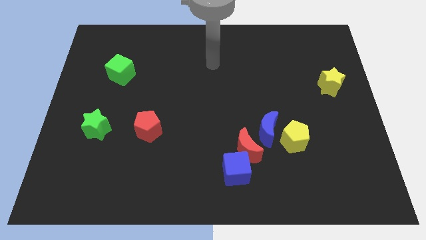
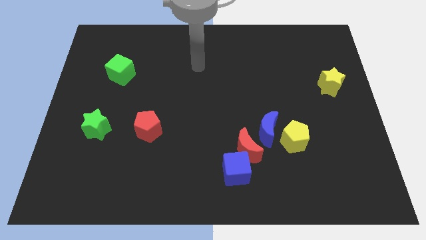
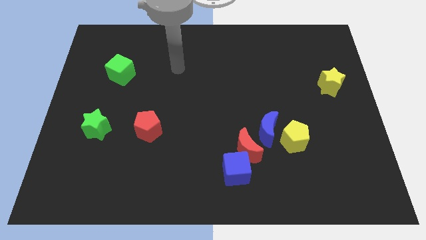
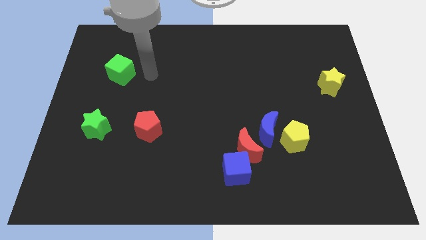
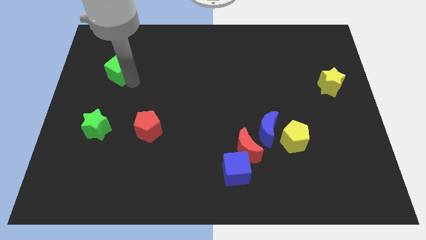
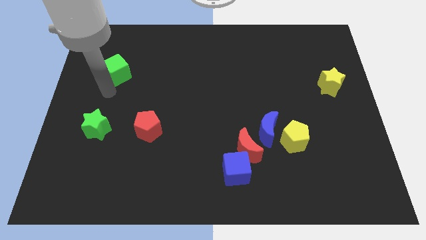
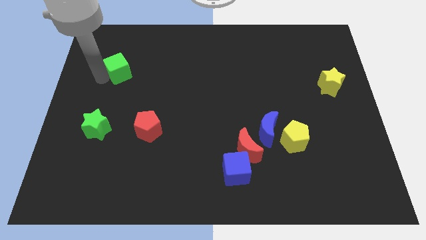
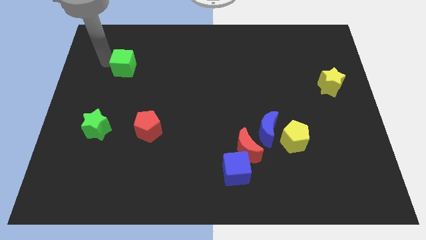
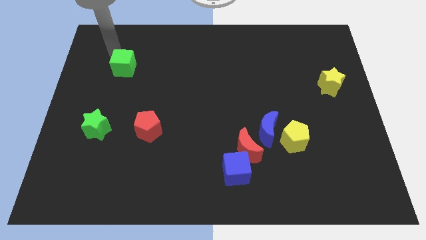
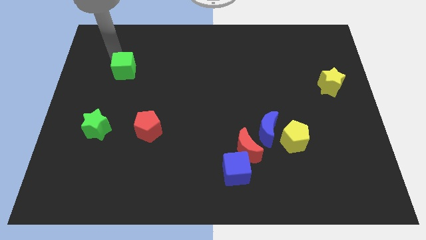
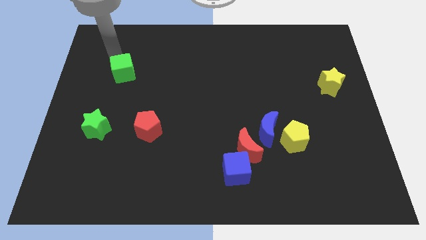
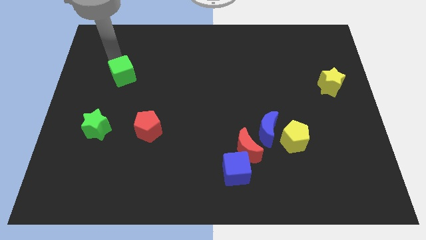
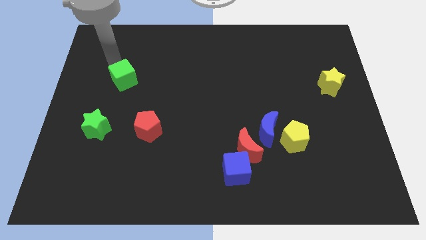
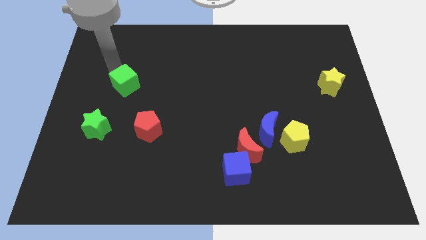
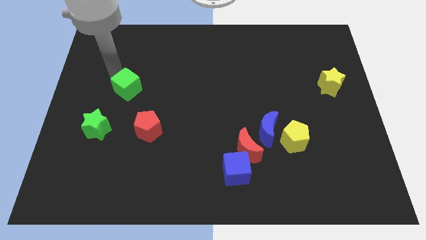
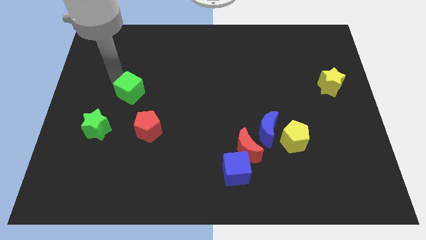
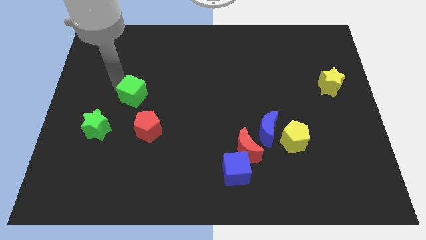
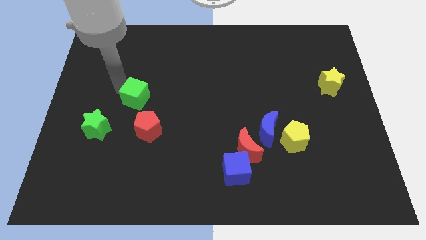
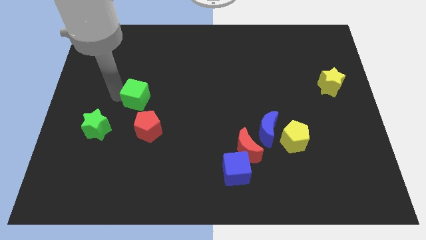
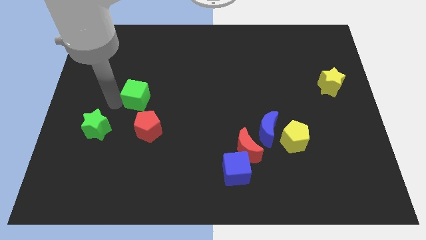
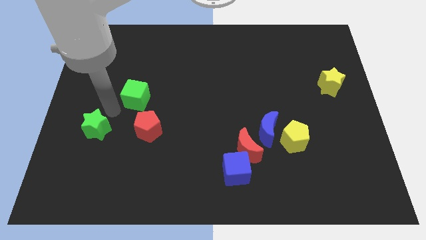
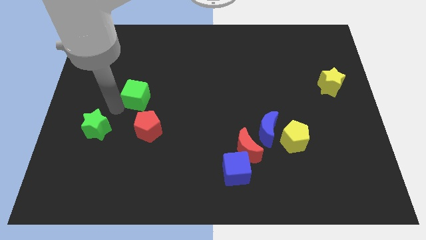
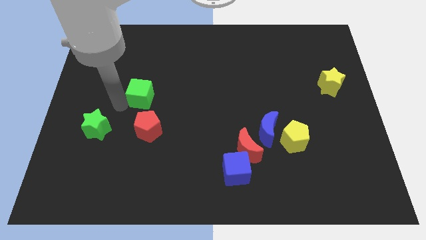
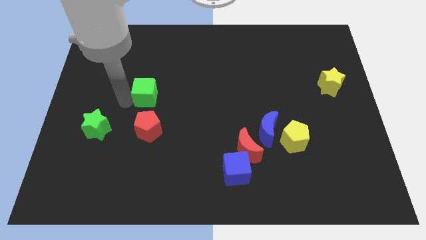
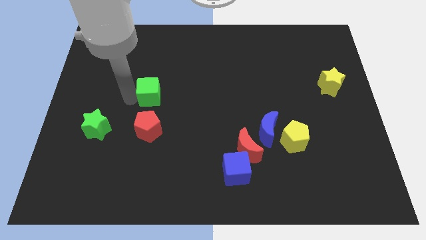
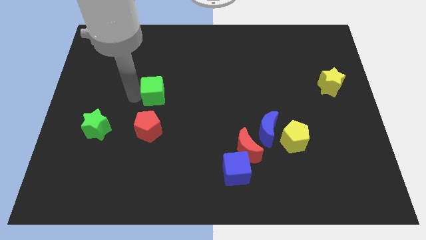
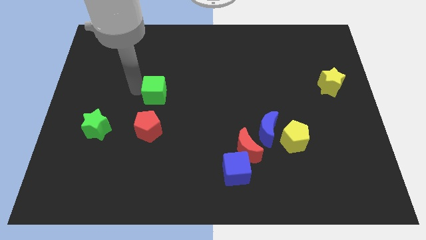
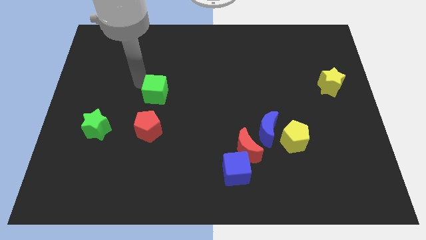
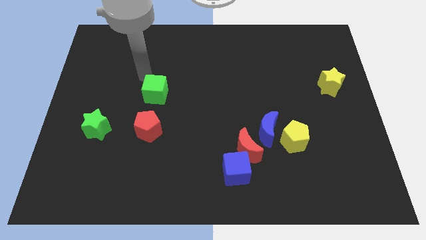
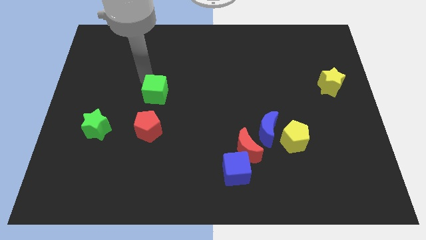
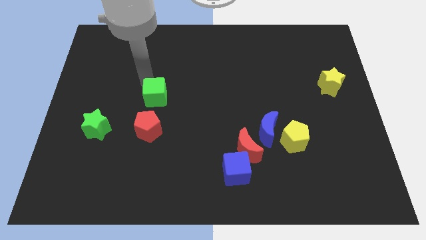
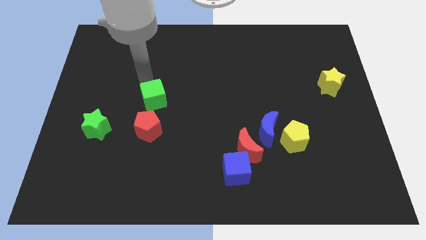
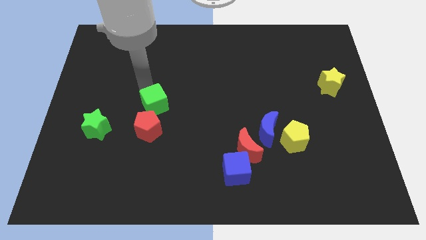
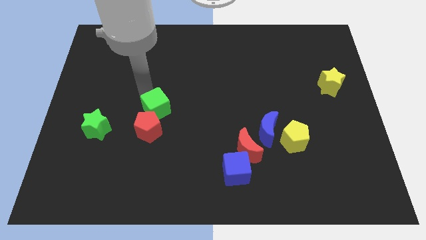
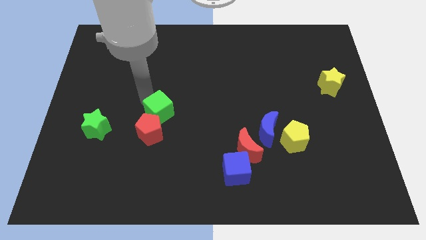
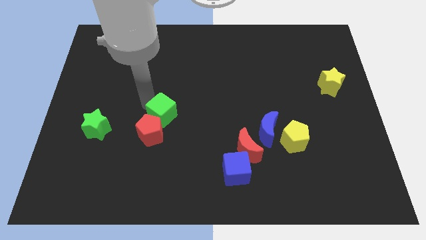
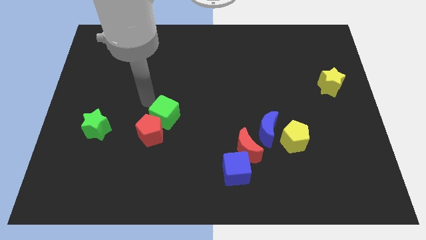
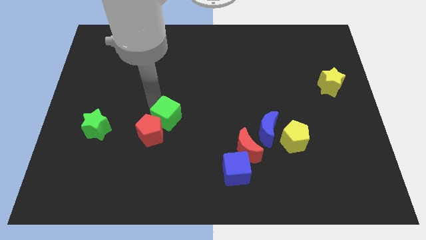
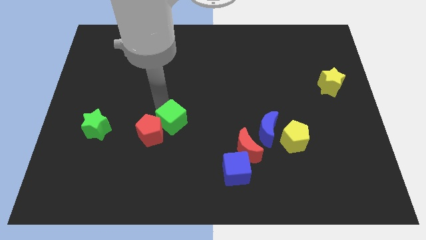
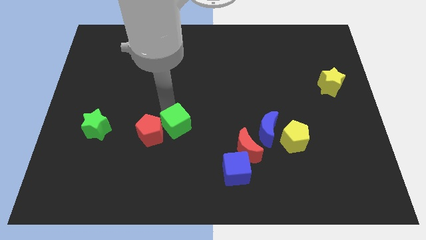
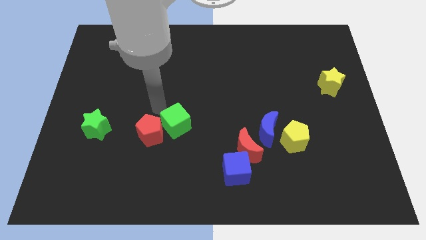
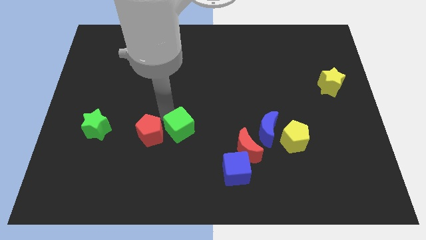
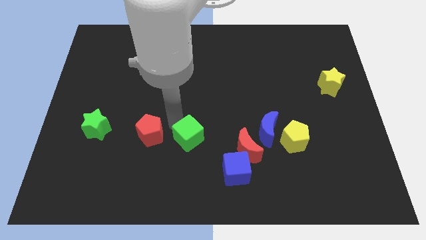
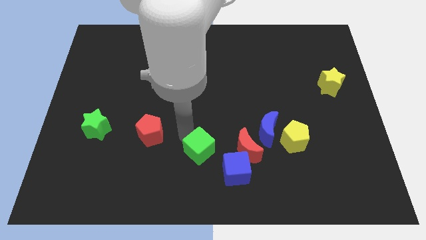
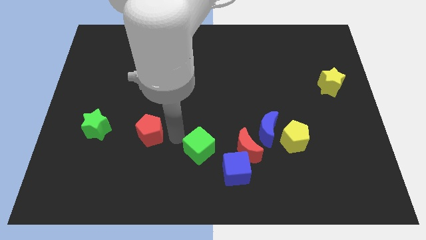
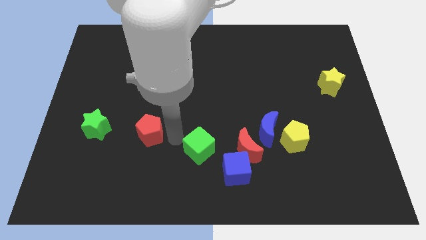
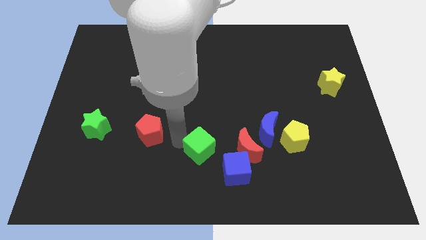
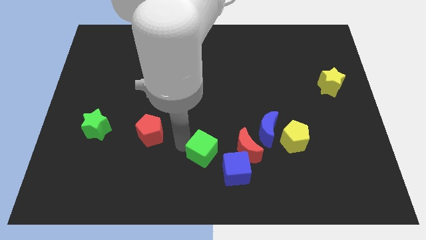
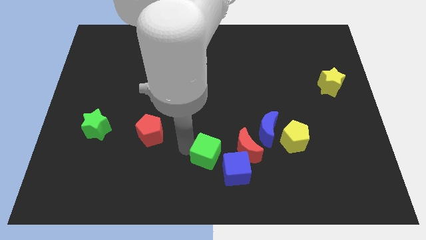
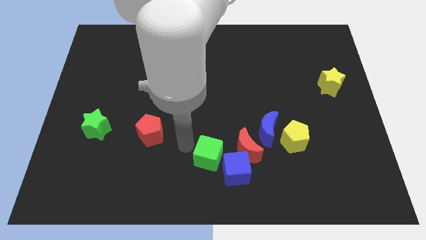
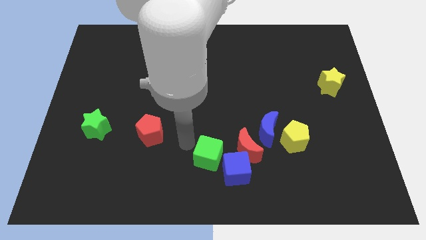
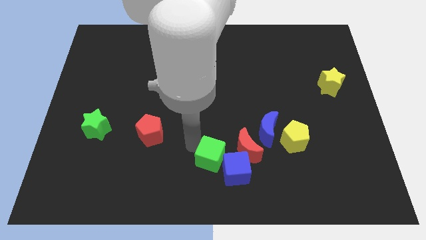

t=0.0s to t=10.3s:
push the green cube to the blue cube

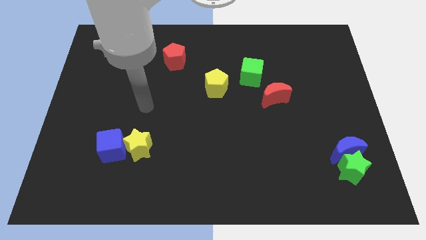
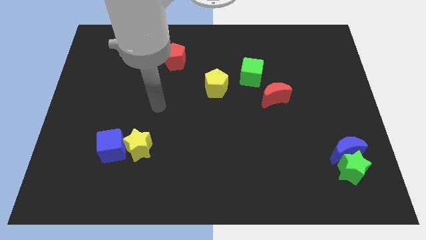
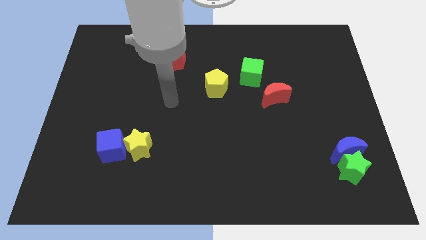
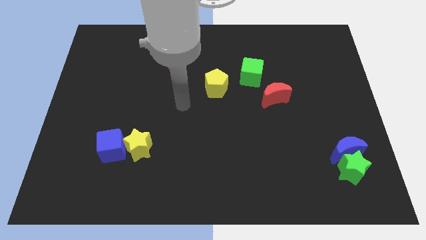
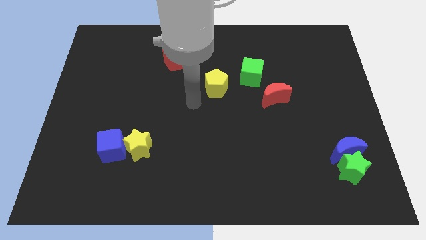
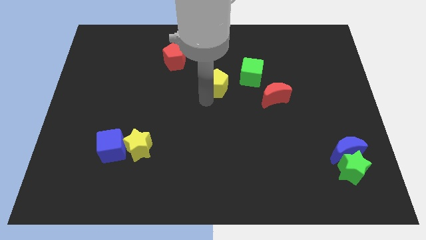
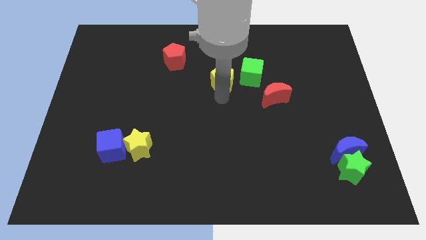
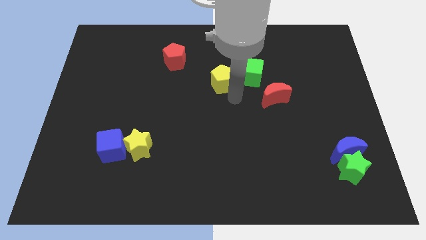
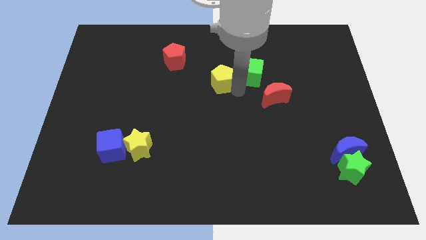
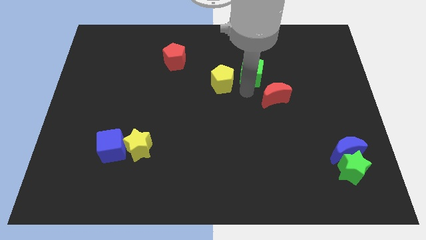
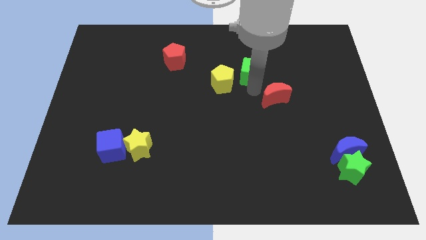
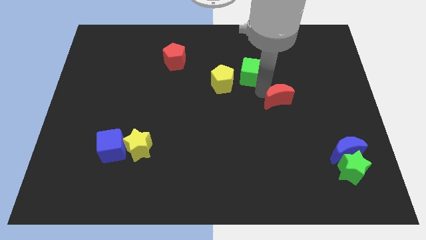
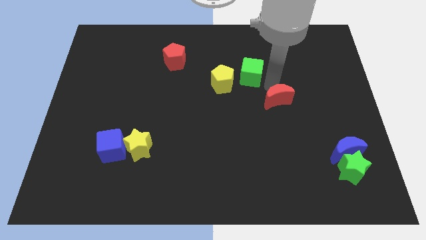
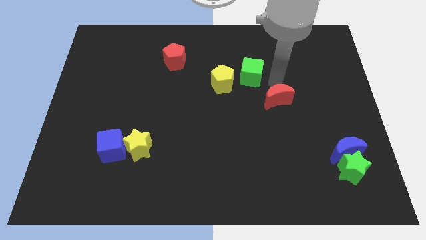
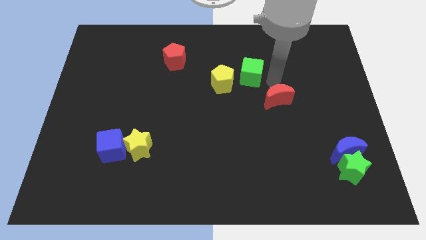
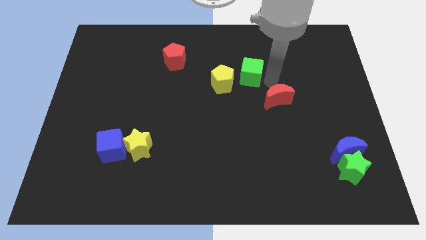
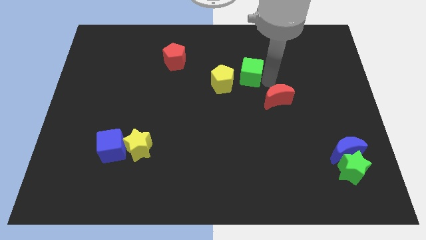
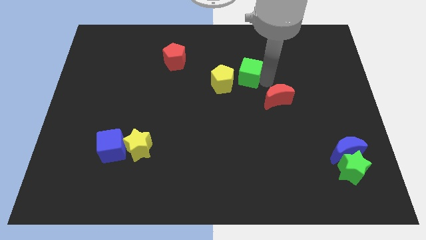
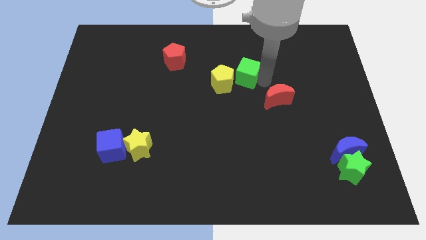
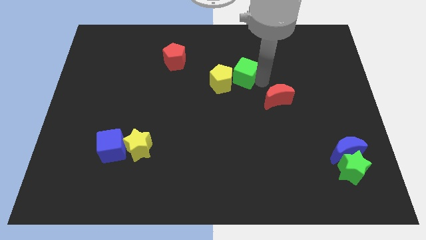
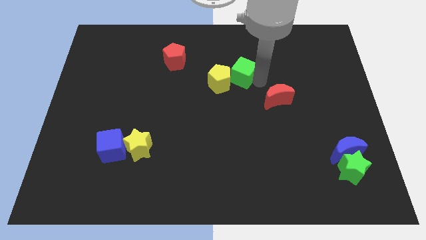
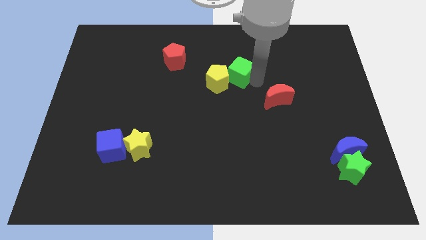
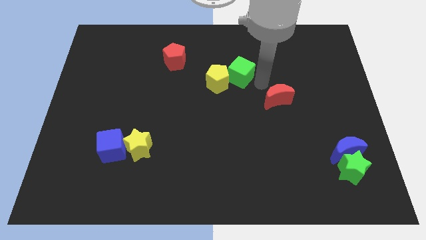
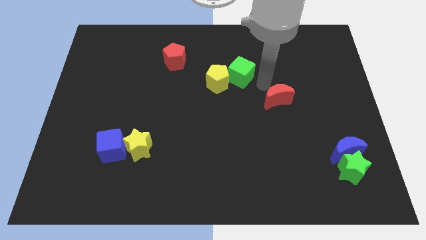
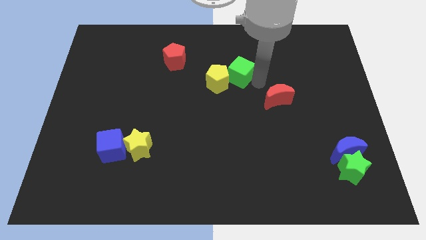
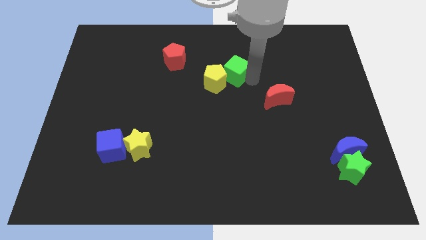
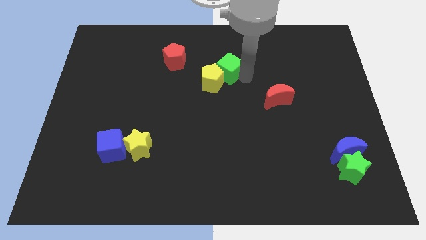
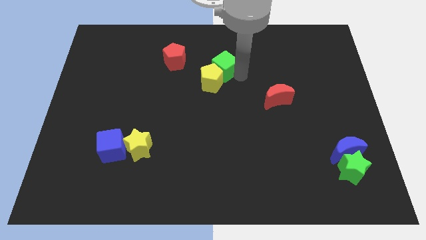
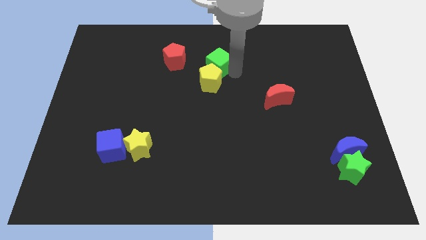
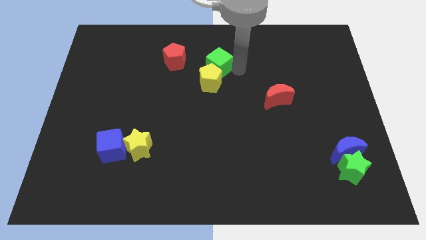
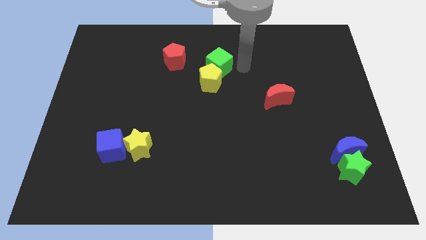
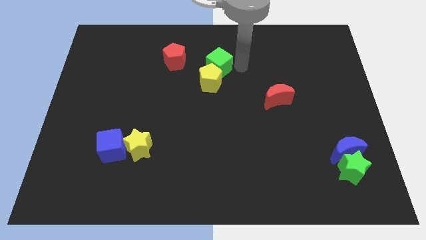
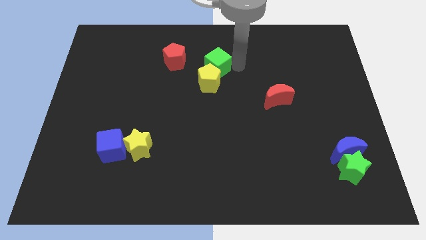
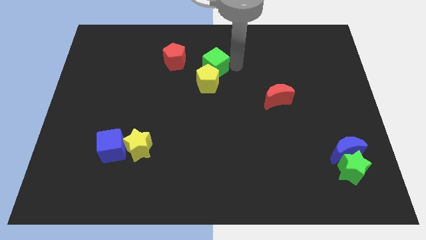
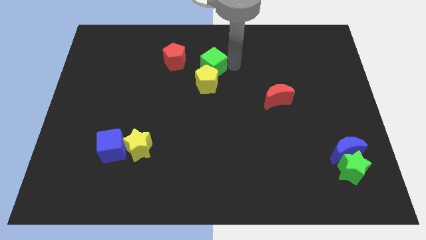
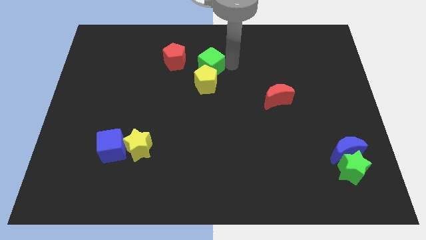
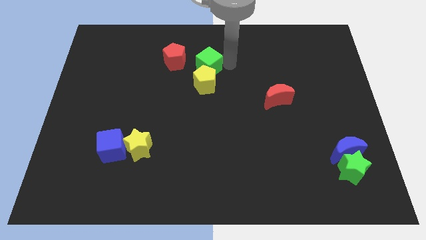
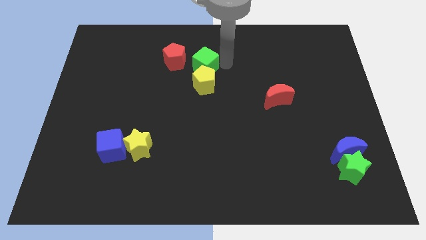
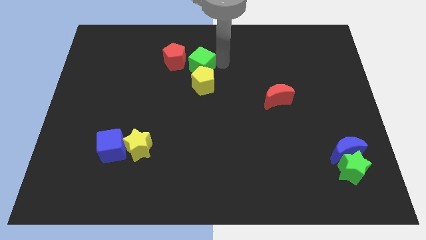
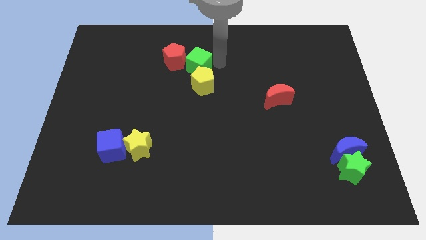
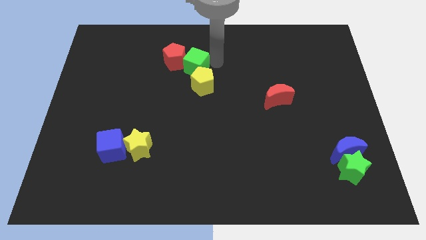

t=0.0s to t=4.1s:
move the green cube to the red pentagon
